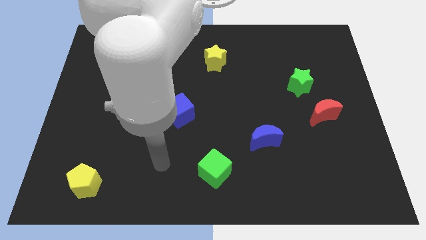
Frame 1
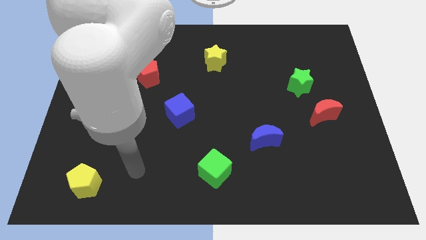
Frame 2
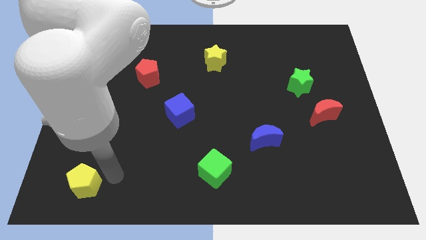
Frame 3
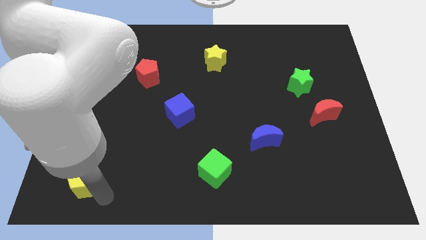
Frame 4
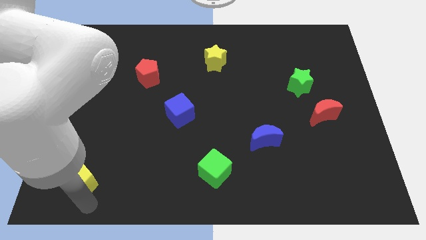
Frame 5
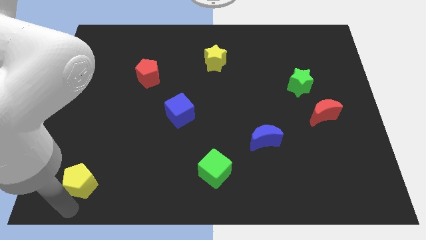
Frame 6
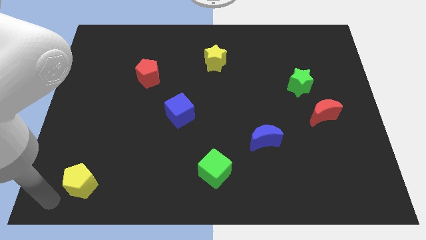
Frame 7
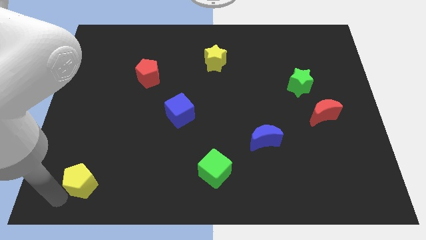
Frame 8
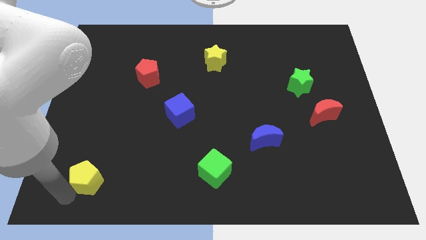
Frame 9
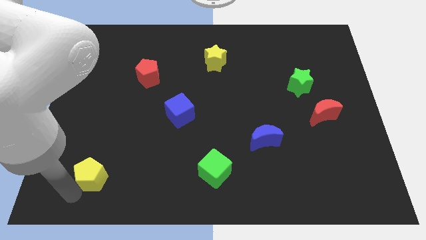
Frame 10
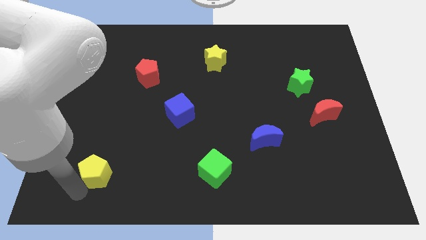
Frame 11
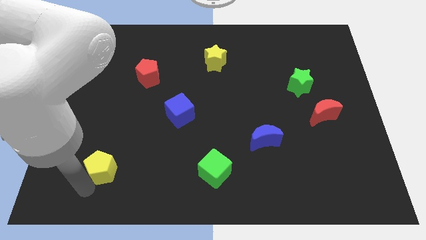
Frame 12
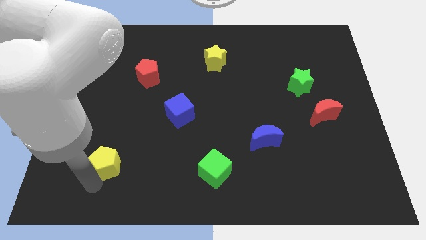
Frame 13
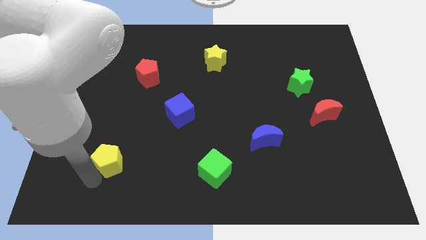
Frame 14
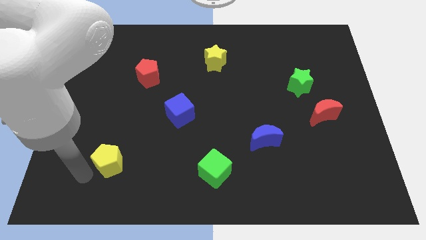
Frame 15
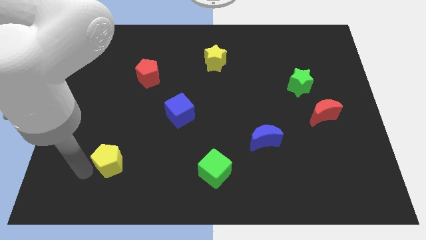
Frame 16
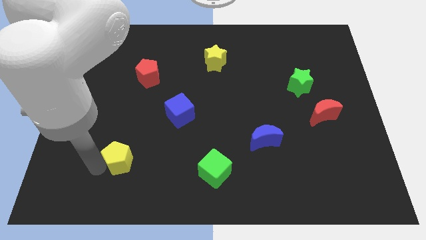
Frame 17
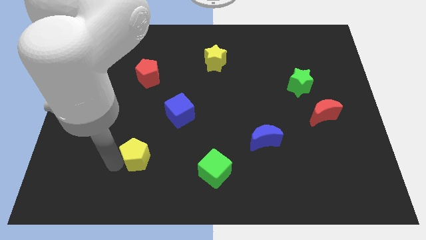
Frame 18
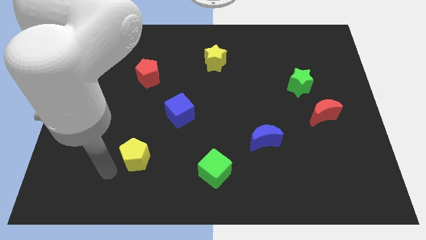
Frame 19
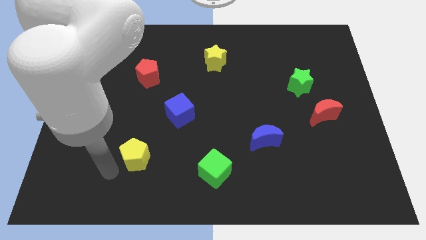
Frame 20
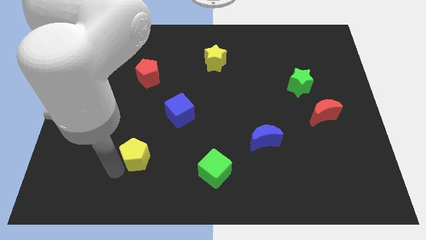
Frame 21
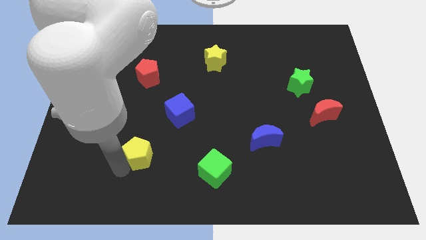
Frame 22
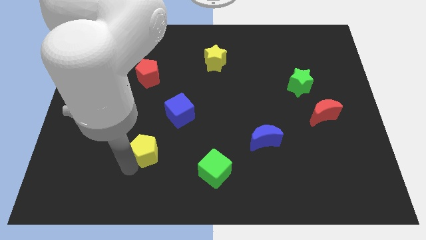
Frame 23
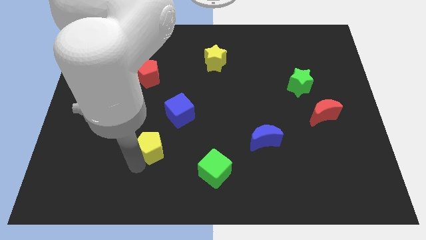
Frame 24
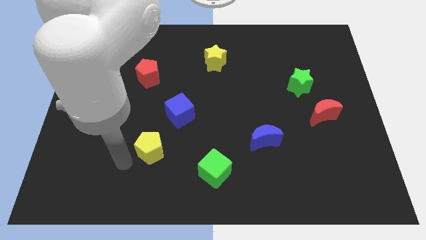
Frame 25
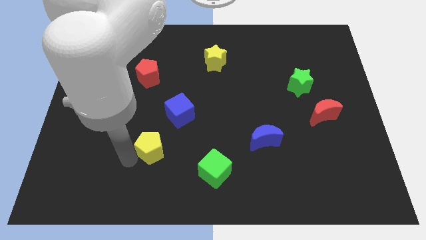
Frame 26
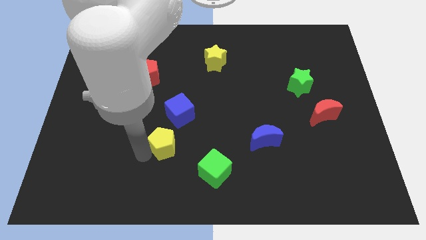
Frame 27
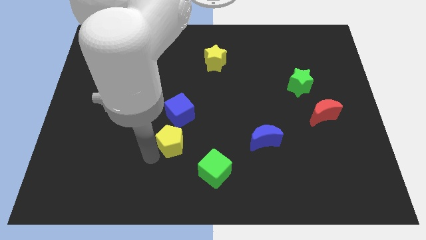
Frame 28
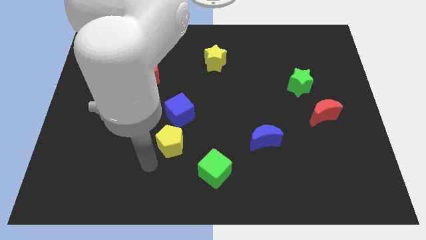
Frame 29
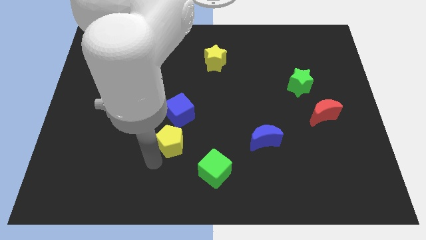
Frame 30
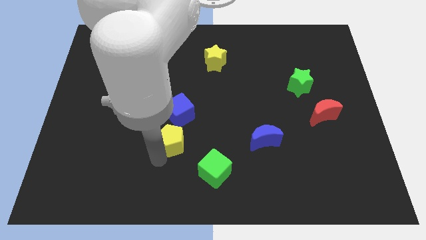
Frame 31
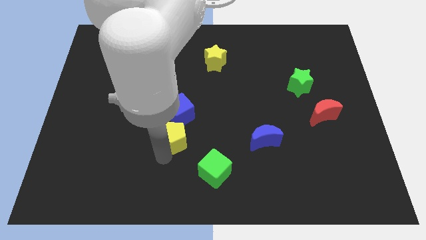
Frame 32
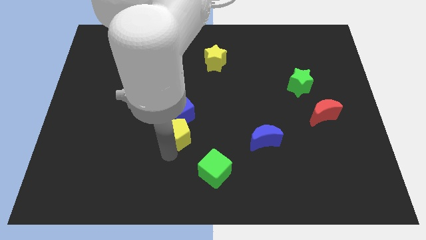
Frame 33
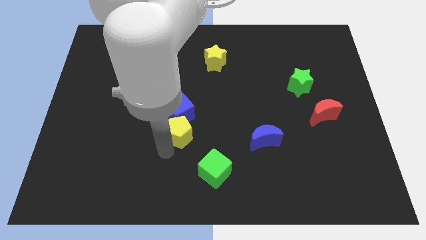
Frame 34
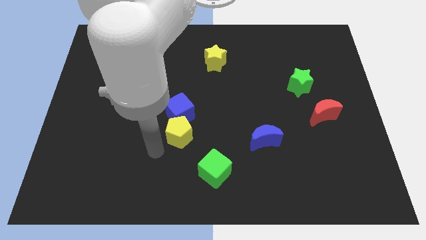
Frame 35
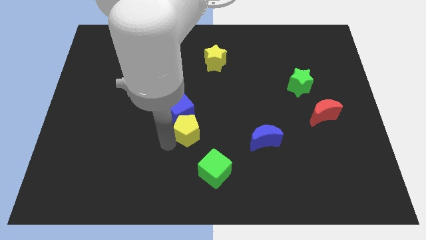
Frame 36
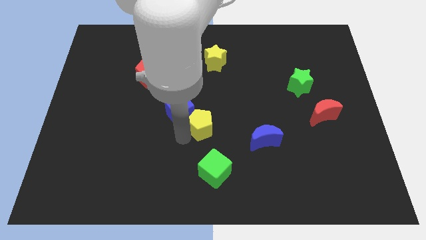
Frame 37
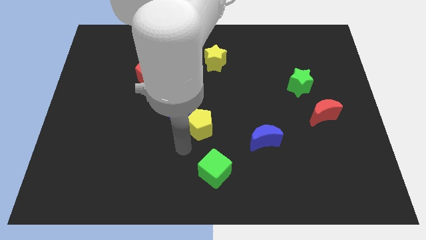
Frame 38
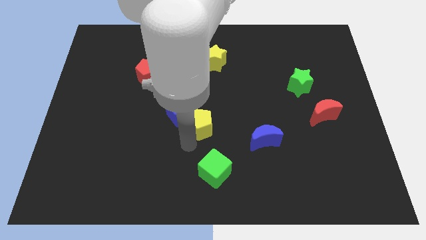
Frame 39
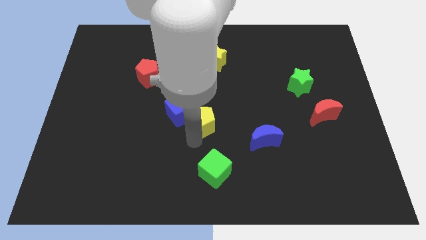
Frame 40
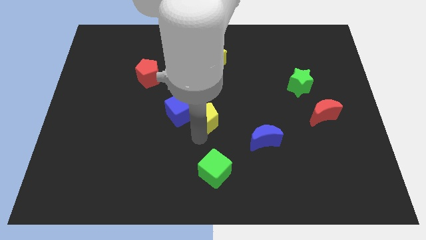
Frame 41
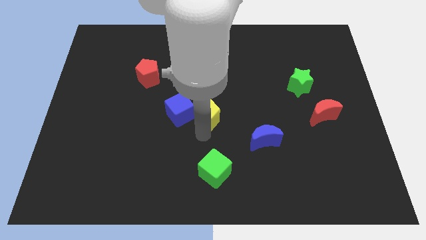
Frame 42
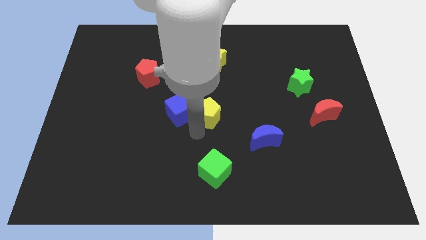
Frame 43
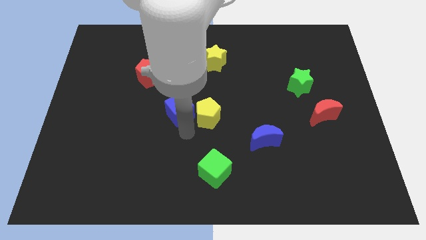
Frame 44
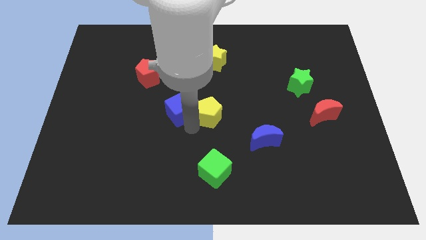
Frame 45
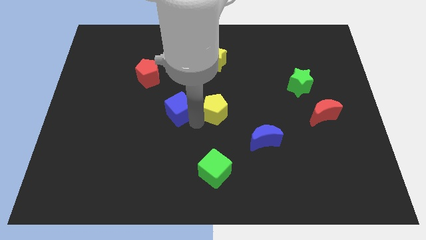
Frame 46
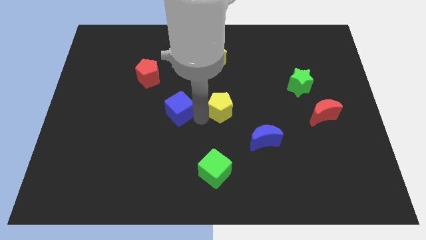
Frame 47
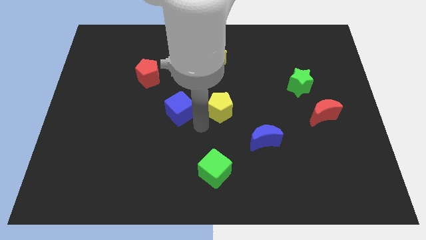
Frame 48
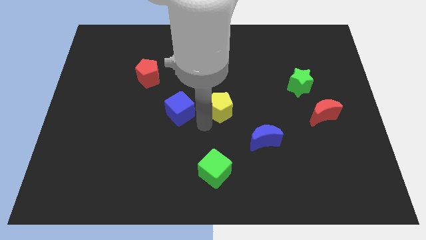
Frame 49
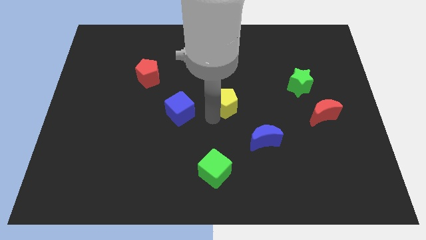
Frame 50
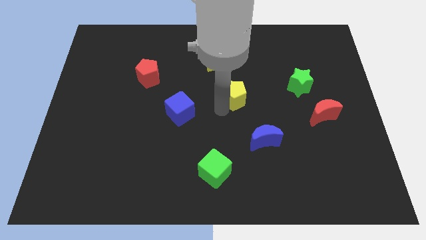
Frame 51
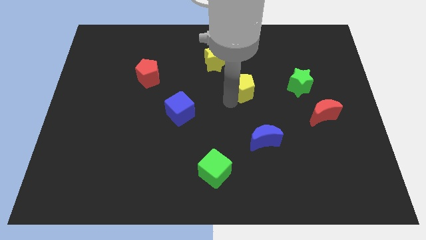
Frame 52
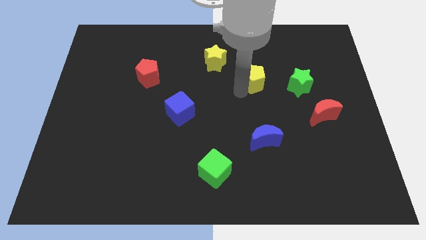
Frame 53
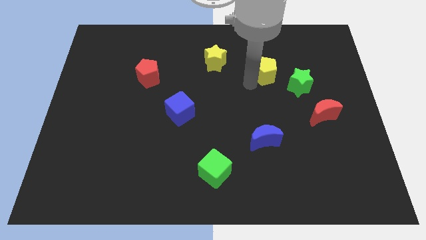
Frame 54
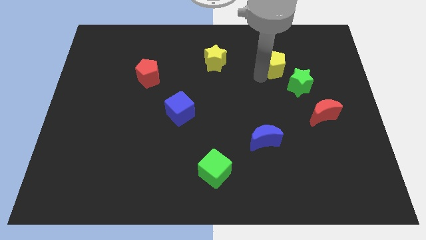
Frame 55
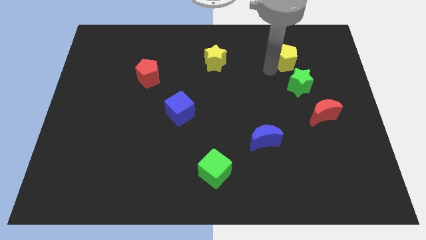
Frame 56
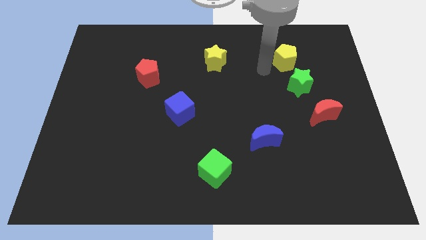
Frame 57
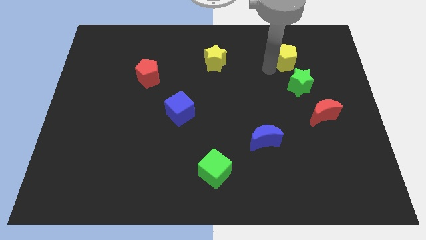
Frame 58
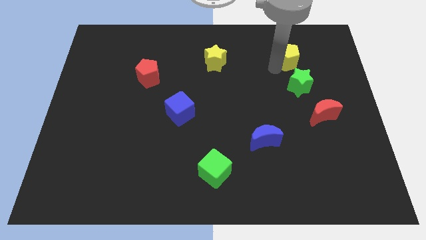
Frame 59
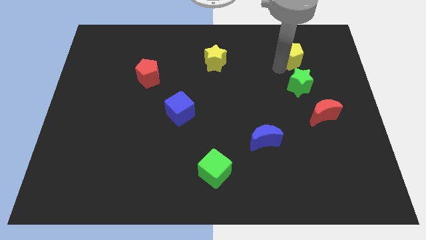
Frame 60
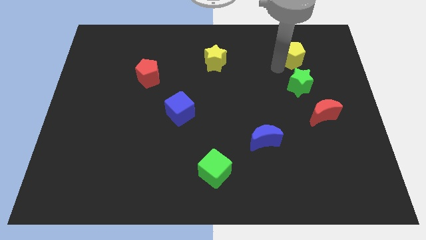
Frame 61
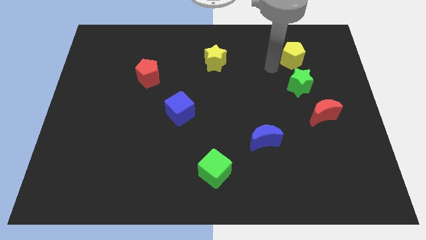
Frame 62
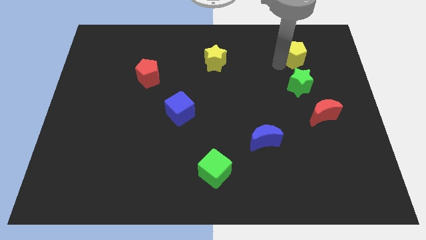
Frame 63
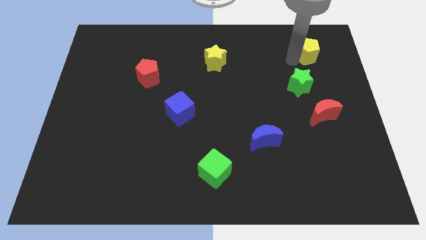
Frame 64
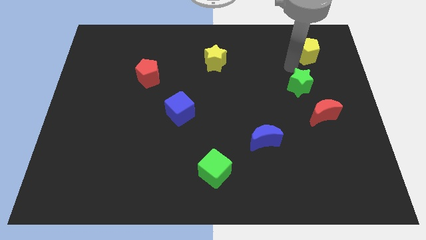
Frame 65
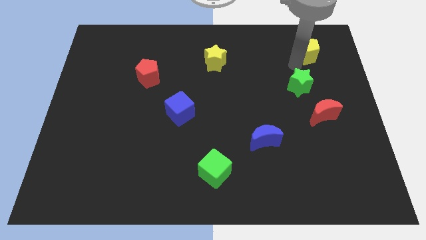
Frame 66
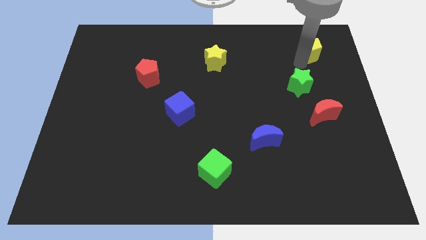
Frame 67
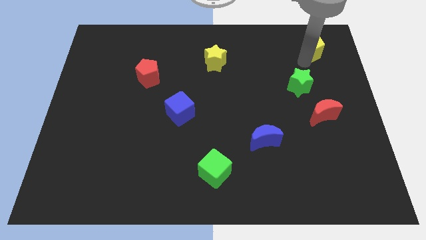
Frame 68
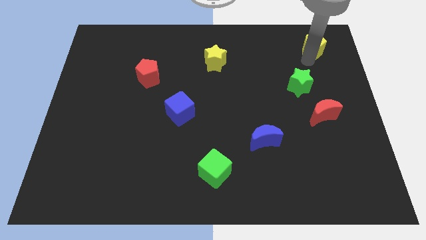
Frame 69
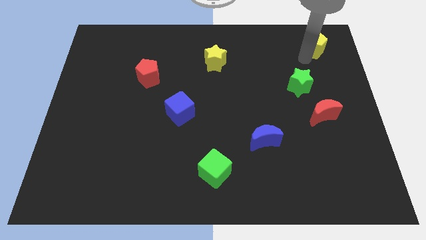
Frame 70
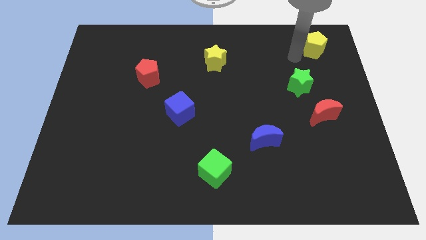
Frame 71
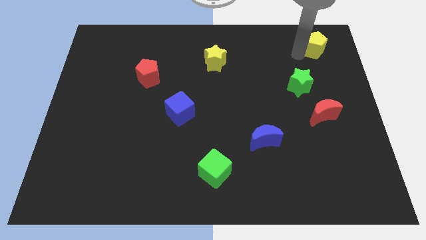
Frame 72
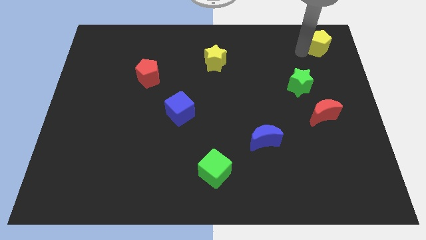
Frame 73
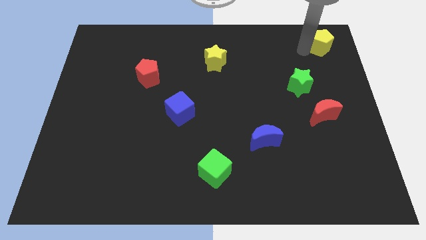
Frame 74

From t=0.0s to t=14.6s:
put the yellow pentagon to the top right corner

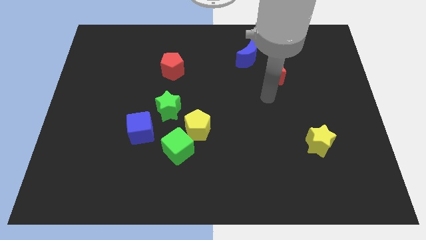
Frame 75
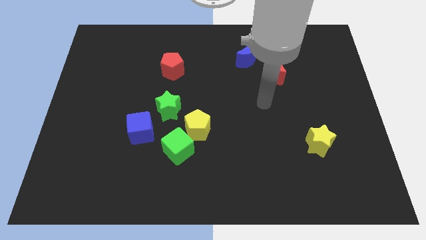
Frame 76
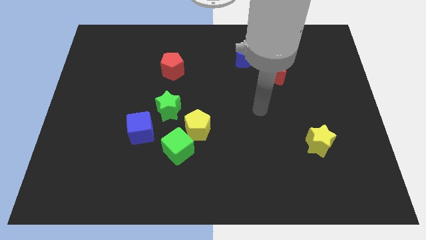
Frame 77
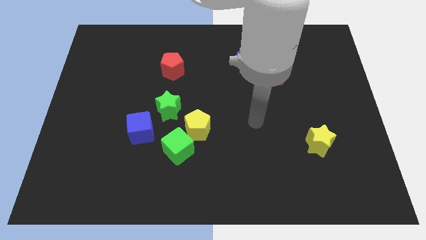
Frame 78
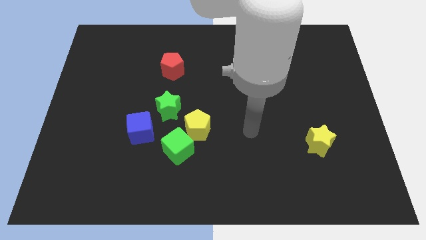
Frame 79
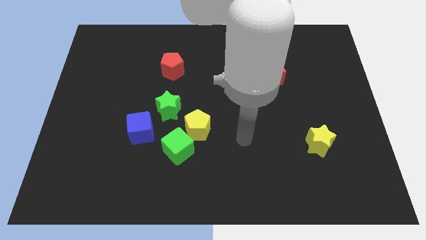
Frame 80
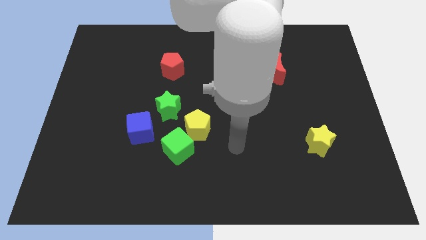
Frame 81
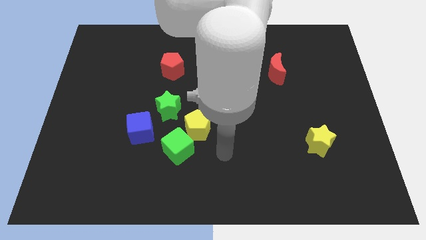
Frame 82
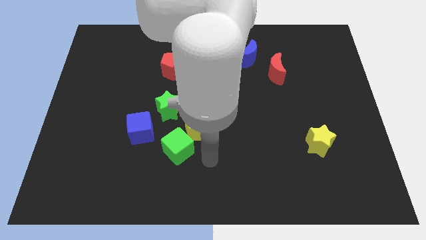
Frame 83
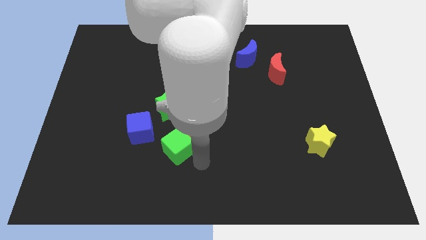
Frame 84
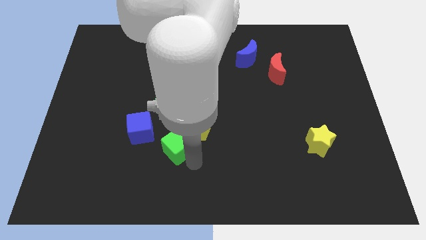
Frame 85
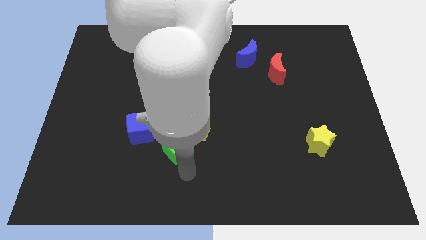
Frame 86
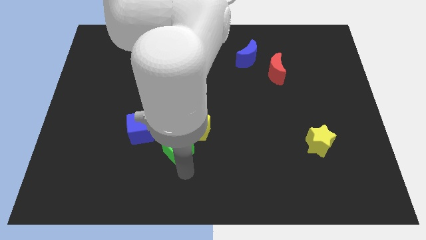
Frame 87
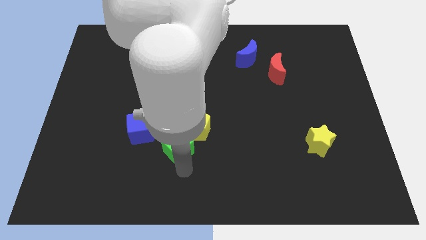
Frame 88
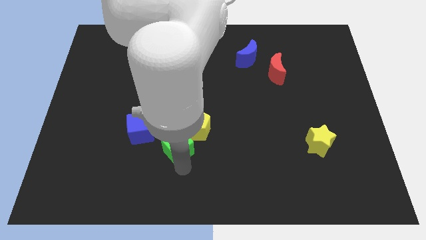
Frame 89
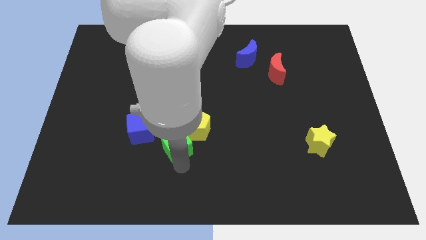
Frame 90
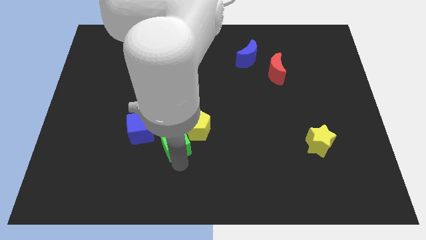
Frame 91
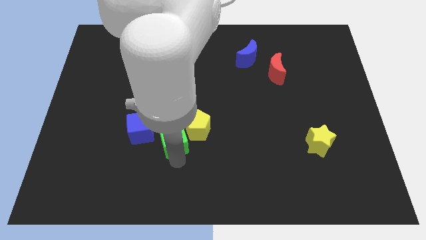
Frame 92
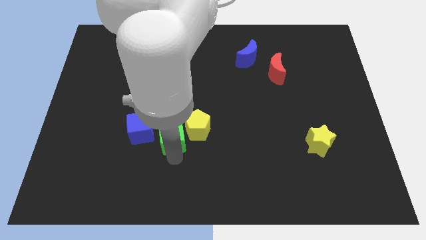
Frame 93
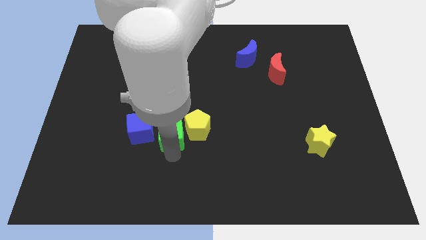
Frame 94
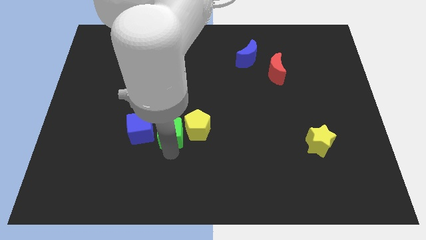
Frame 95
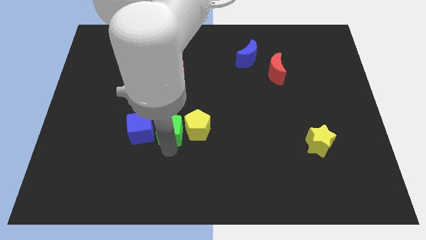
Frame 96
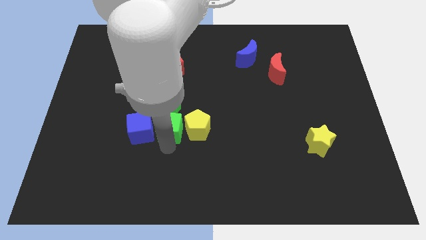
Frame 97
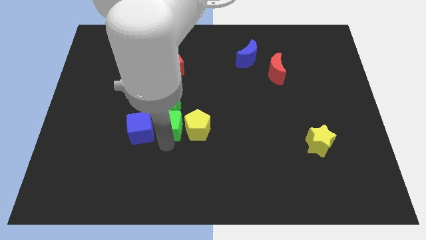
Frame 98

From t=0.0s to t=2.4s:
move the green cube to the center of the board
